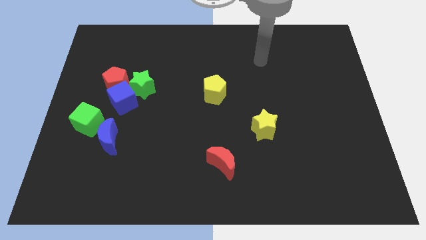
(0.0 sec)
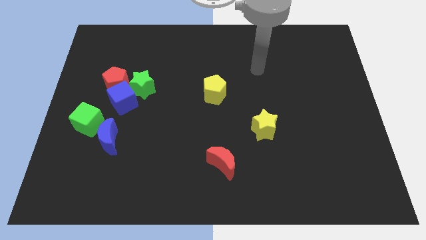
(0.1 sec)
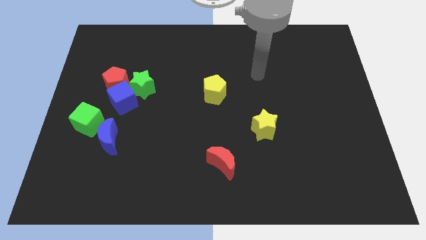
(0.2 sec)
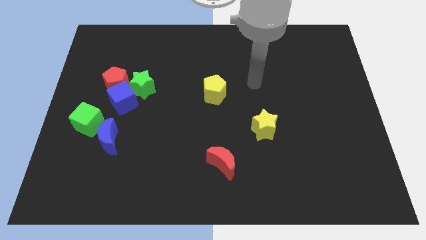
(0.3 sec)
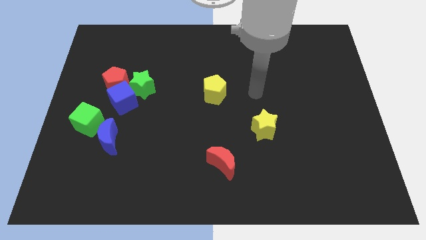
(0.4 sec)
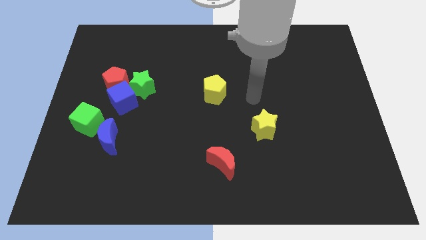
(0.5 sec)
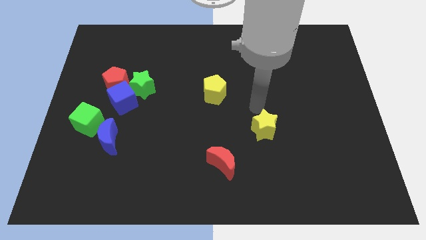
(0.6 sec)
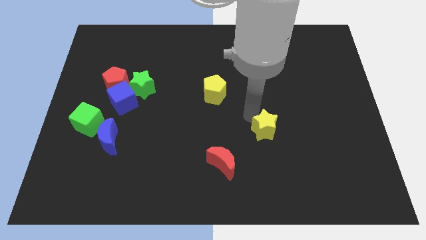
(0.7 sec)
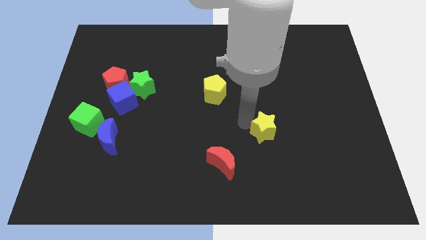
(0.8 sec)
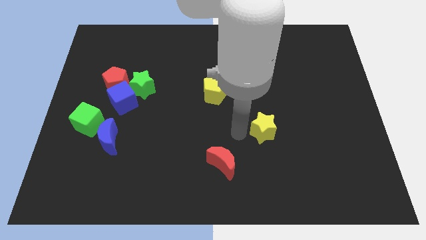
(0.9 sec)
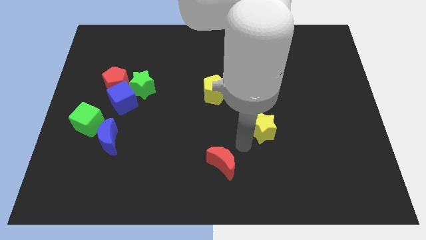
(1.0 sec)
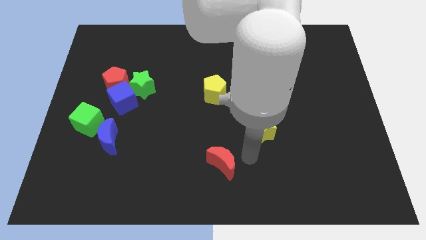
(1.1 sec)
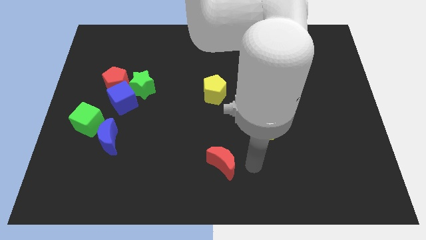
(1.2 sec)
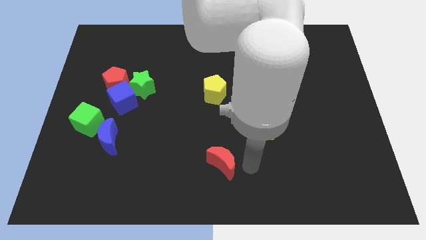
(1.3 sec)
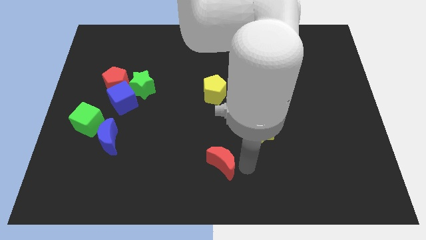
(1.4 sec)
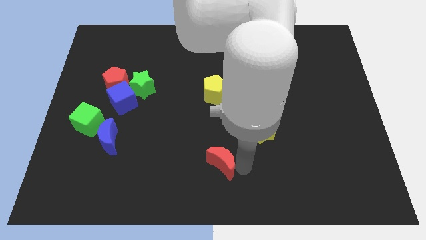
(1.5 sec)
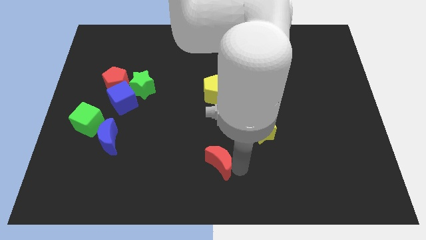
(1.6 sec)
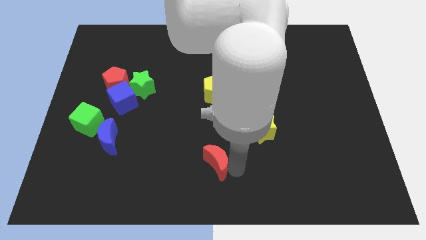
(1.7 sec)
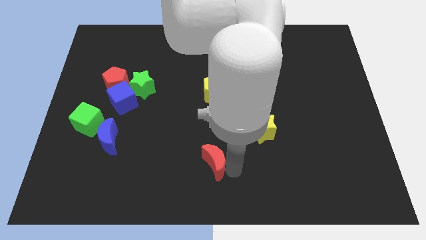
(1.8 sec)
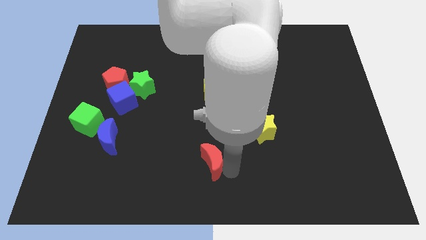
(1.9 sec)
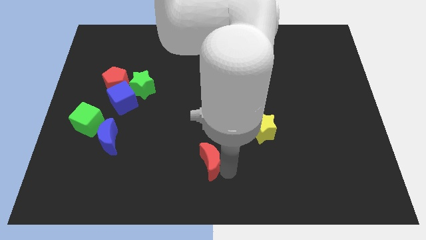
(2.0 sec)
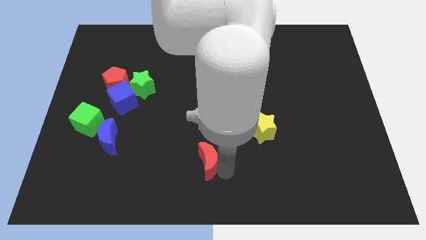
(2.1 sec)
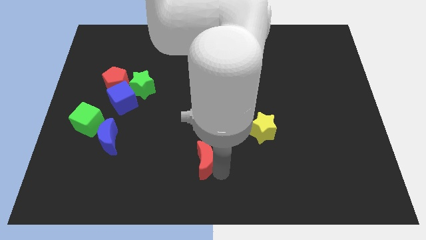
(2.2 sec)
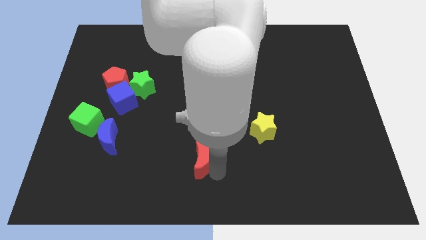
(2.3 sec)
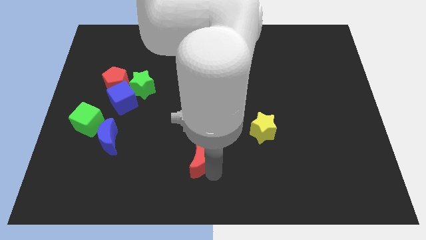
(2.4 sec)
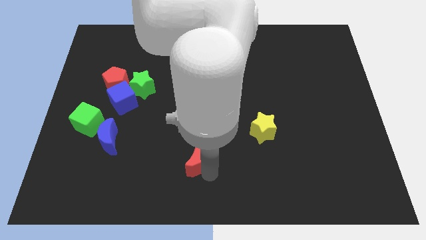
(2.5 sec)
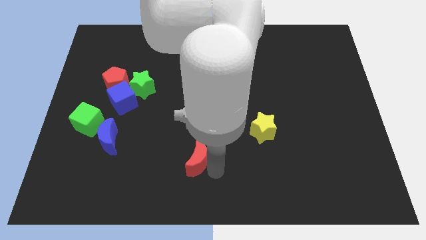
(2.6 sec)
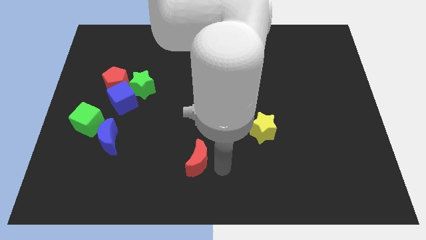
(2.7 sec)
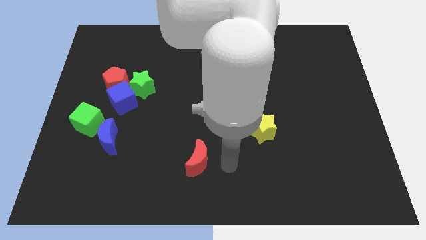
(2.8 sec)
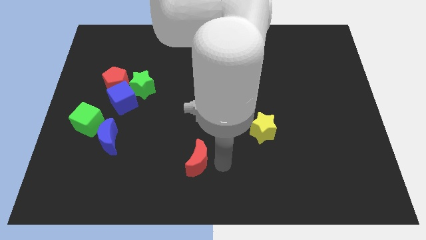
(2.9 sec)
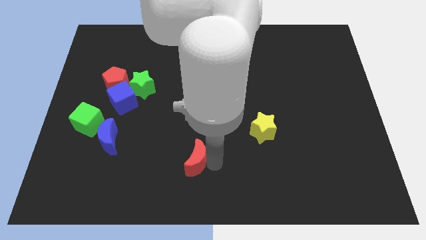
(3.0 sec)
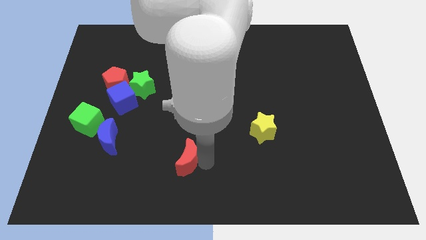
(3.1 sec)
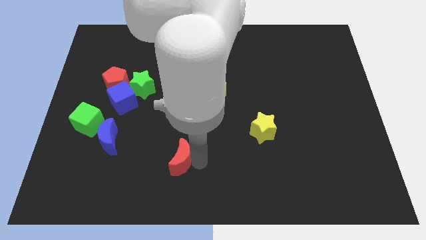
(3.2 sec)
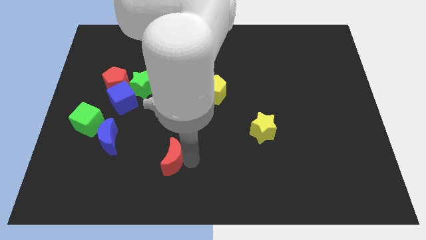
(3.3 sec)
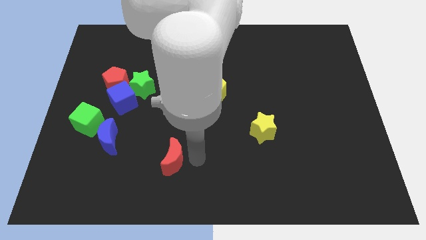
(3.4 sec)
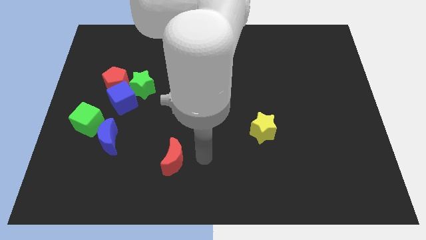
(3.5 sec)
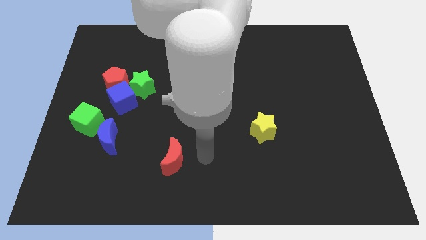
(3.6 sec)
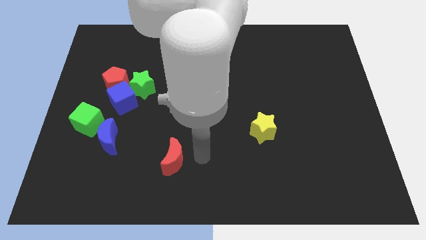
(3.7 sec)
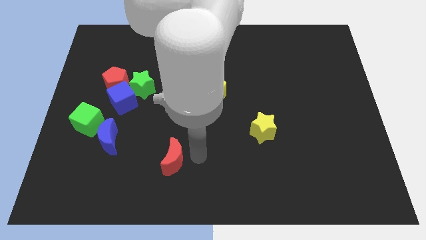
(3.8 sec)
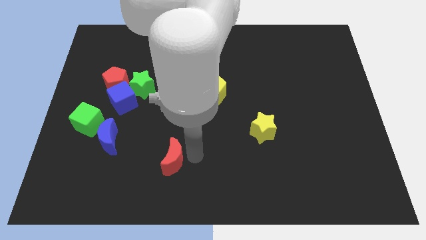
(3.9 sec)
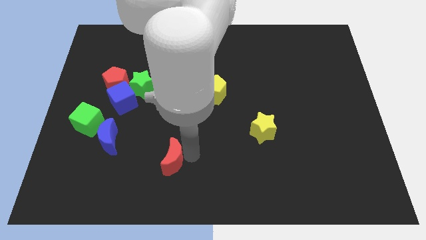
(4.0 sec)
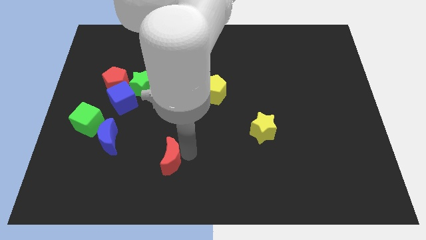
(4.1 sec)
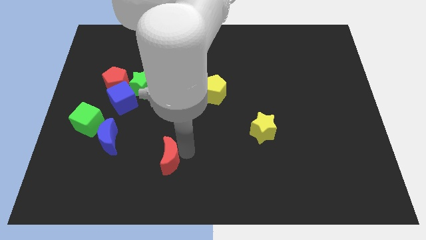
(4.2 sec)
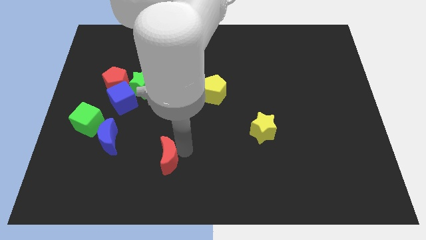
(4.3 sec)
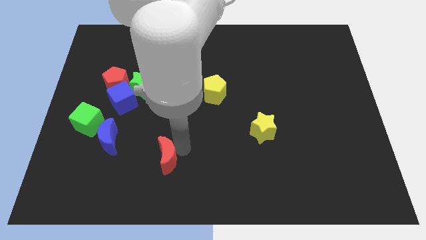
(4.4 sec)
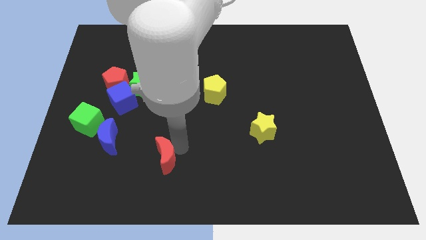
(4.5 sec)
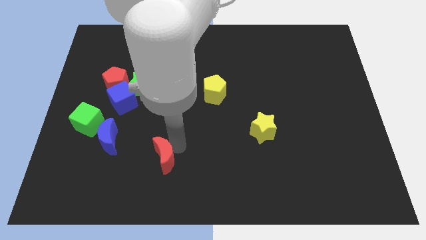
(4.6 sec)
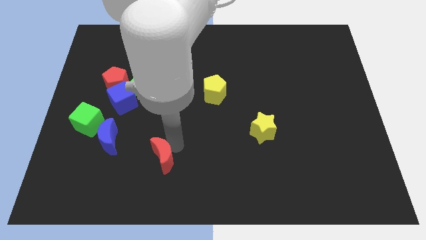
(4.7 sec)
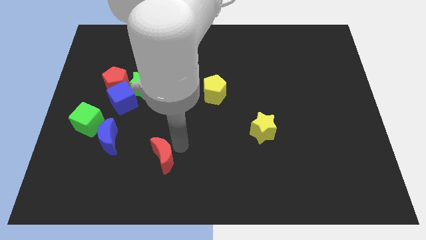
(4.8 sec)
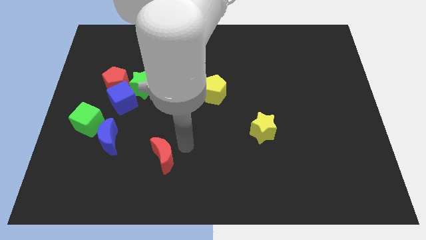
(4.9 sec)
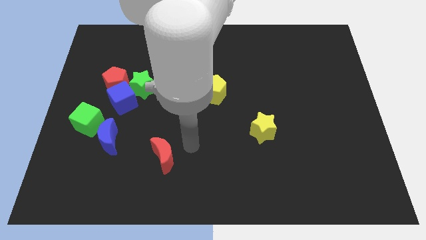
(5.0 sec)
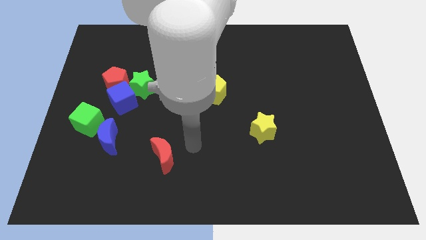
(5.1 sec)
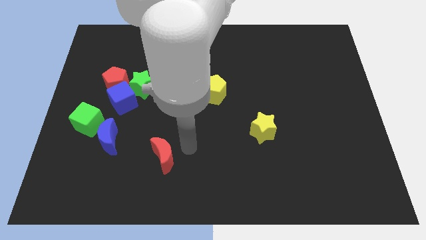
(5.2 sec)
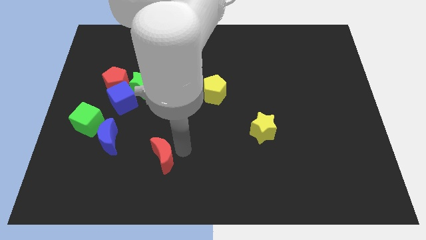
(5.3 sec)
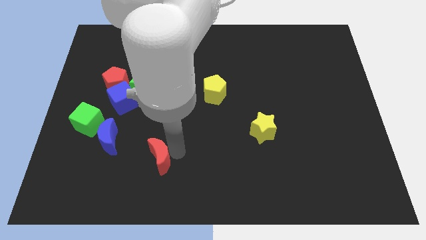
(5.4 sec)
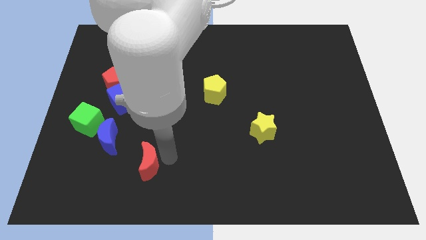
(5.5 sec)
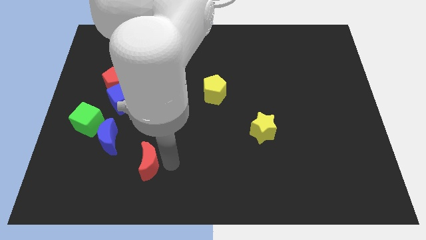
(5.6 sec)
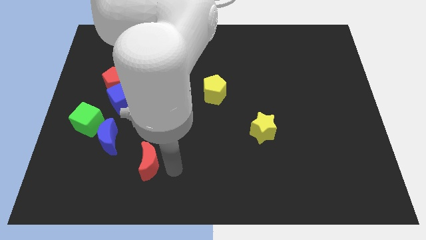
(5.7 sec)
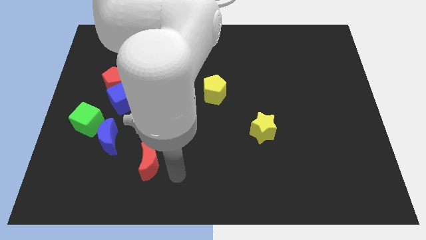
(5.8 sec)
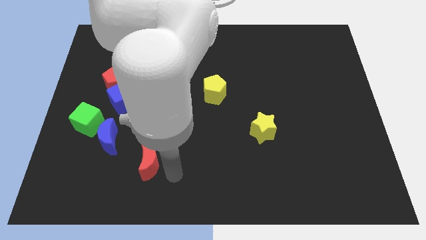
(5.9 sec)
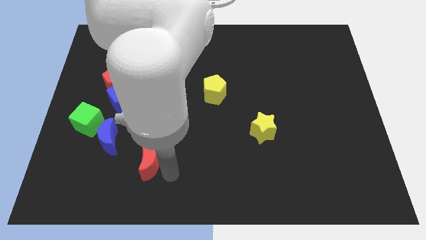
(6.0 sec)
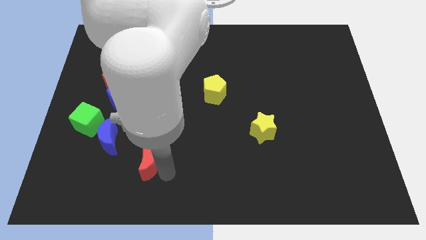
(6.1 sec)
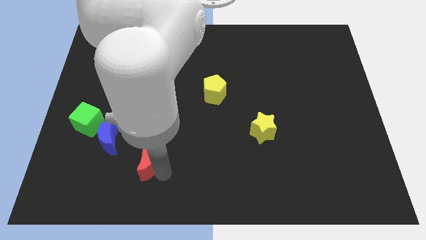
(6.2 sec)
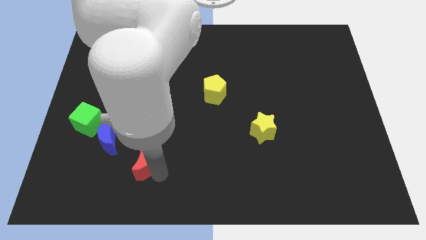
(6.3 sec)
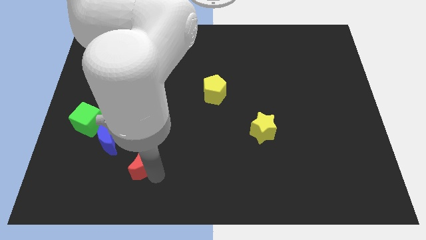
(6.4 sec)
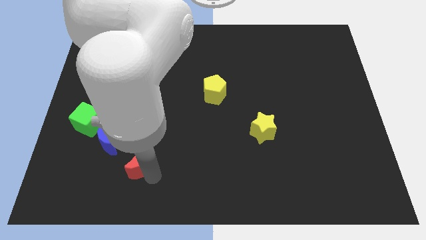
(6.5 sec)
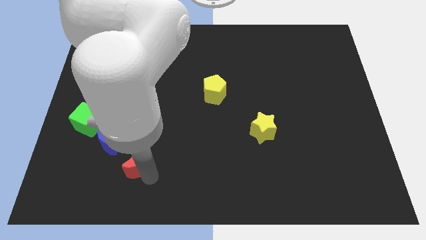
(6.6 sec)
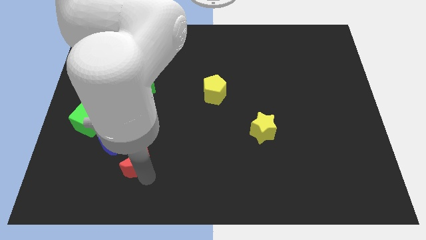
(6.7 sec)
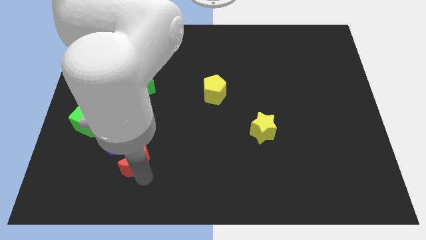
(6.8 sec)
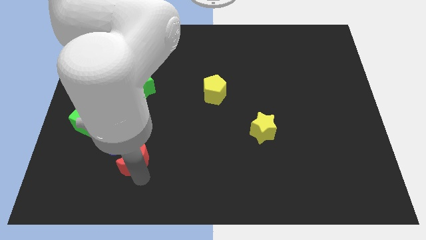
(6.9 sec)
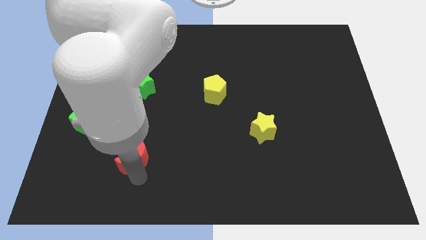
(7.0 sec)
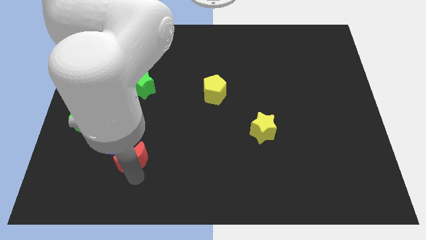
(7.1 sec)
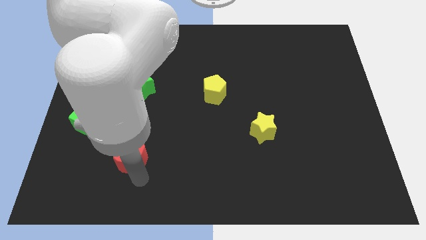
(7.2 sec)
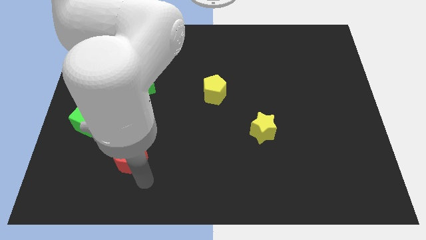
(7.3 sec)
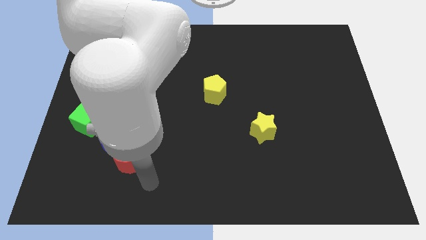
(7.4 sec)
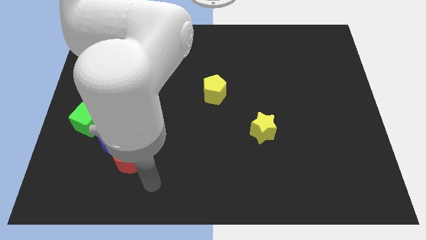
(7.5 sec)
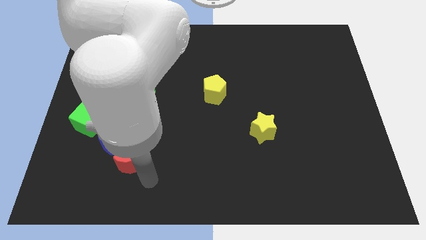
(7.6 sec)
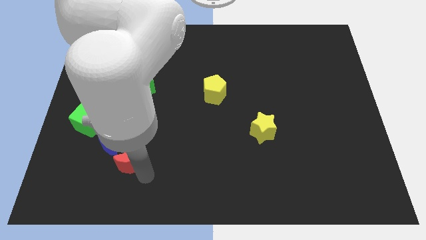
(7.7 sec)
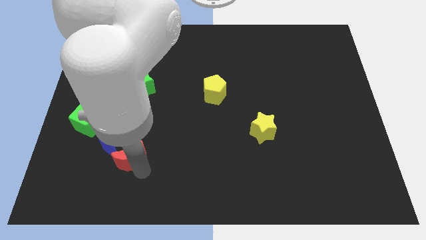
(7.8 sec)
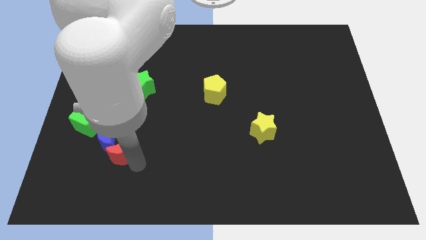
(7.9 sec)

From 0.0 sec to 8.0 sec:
put the red moon towards the blue moon
